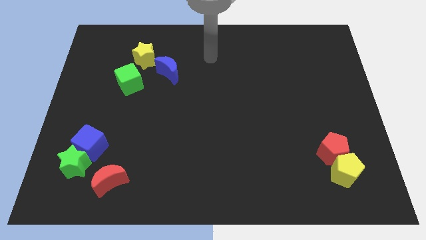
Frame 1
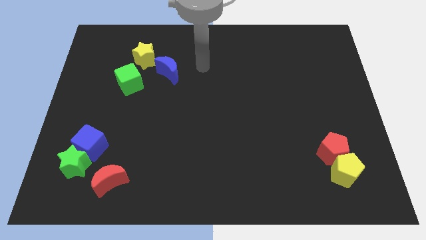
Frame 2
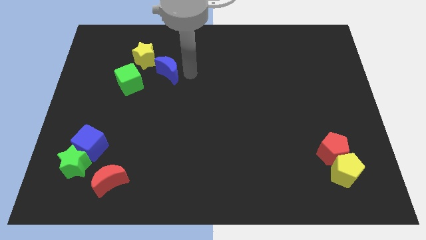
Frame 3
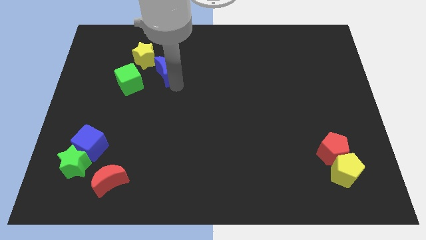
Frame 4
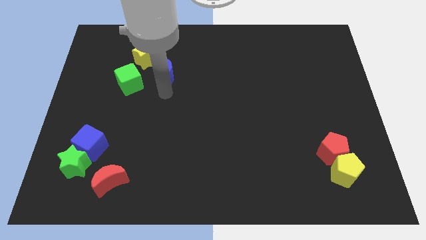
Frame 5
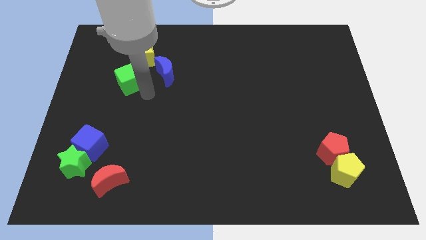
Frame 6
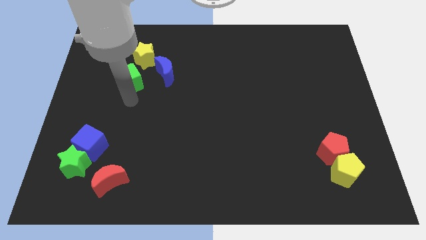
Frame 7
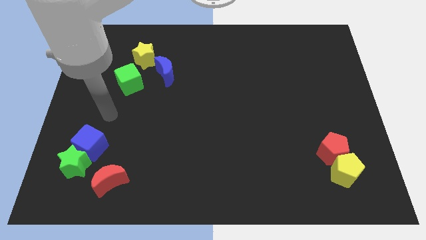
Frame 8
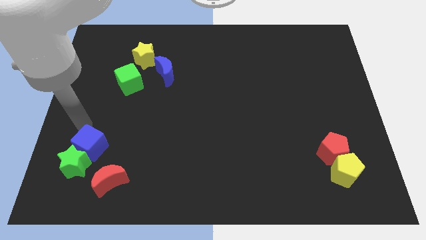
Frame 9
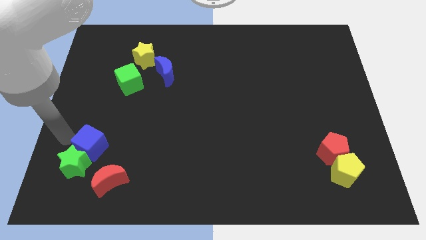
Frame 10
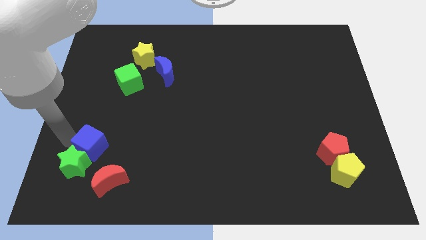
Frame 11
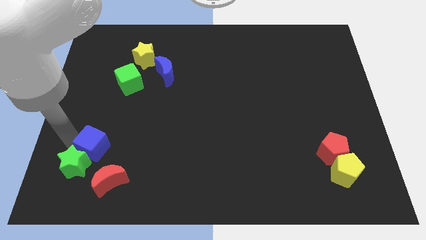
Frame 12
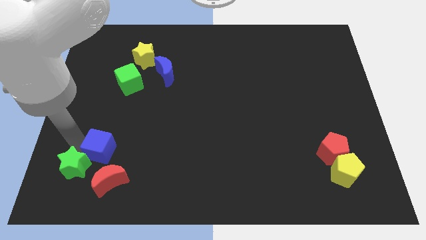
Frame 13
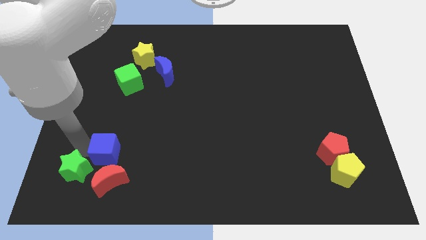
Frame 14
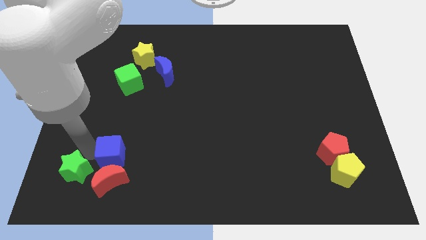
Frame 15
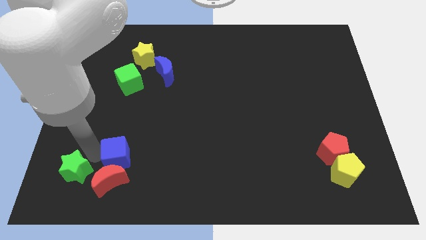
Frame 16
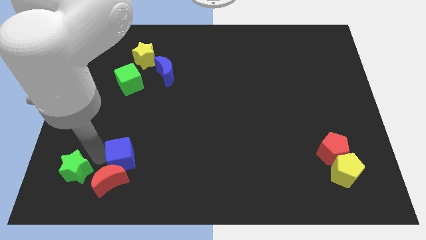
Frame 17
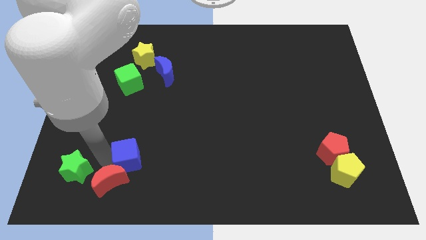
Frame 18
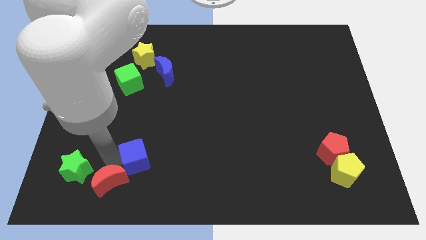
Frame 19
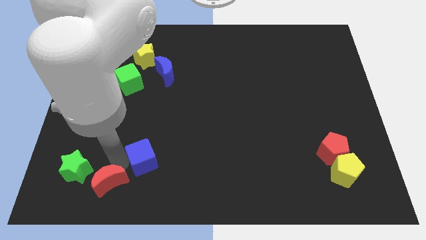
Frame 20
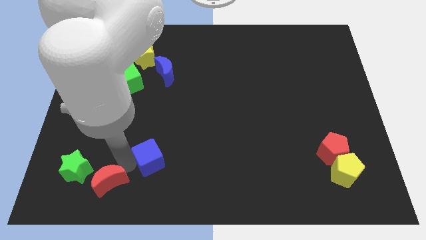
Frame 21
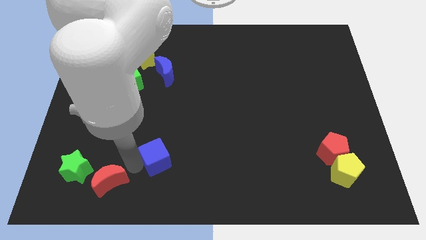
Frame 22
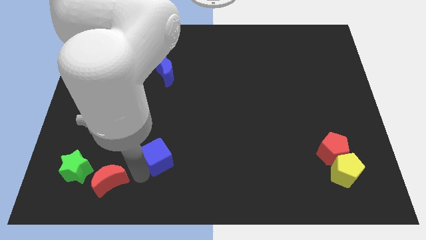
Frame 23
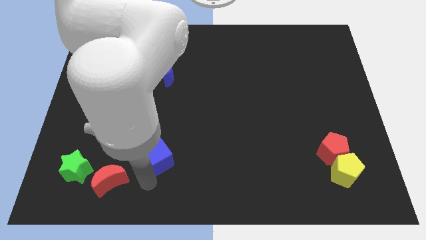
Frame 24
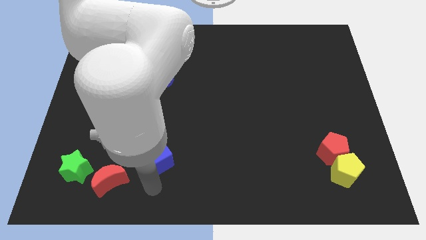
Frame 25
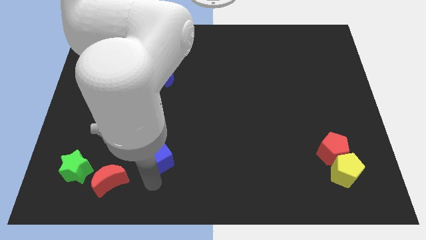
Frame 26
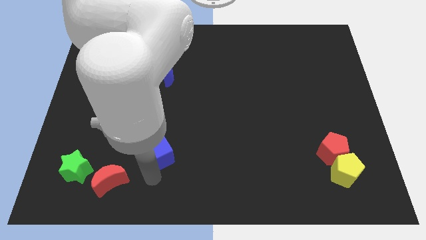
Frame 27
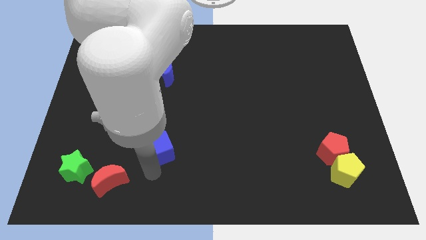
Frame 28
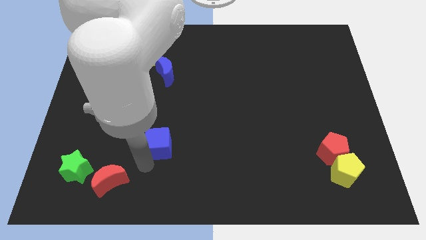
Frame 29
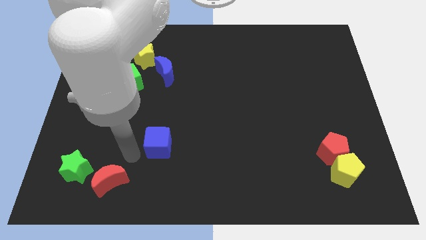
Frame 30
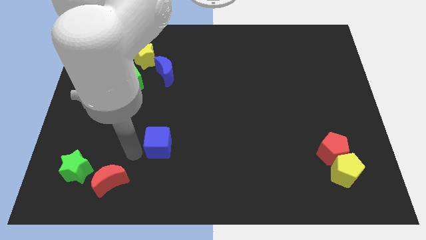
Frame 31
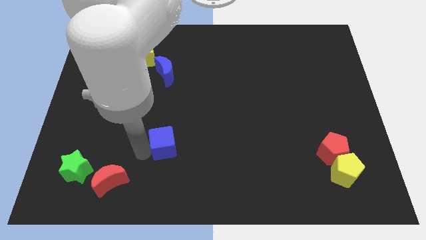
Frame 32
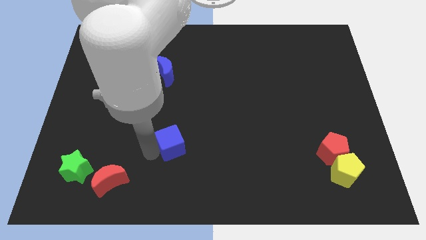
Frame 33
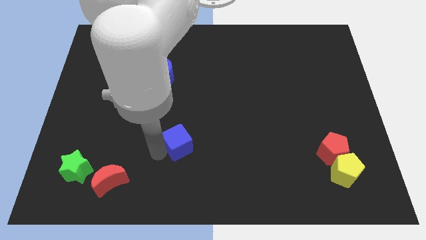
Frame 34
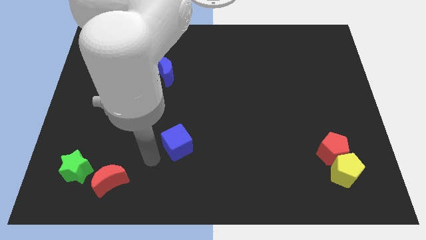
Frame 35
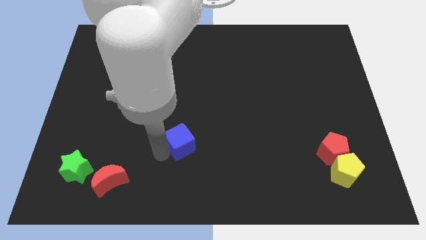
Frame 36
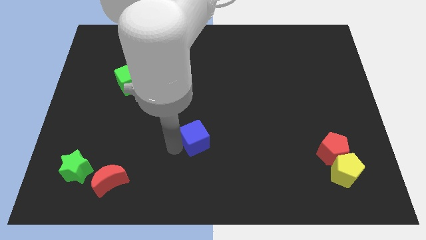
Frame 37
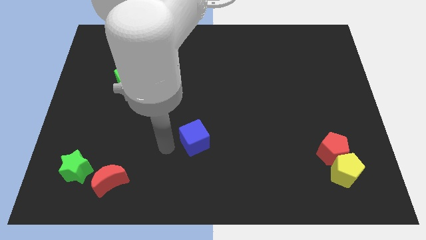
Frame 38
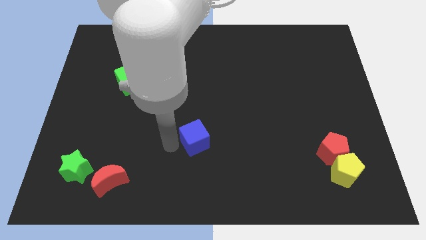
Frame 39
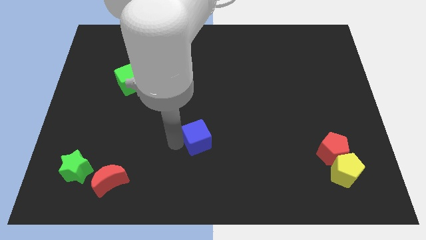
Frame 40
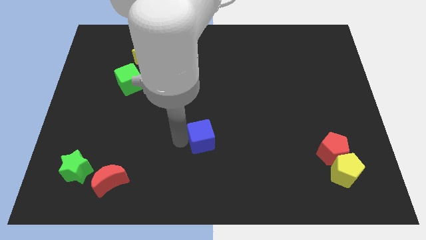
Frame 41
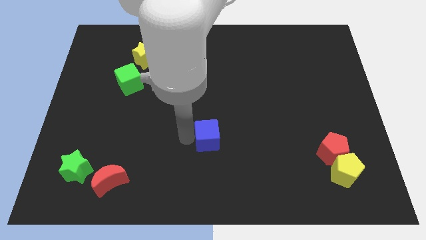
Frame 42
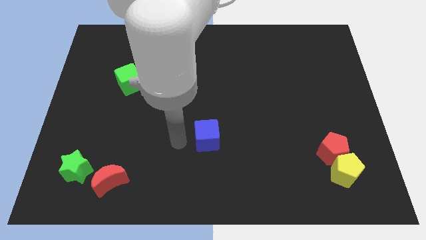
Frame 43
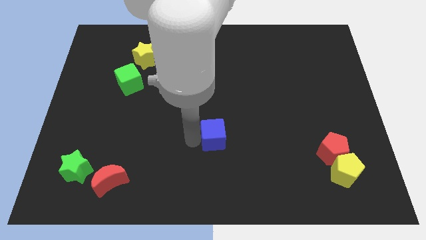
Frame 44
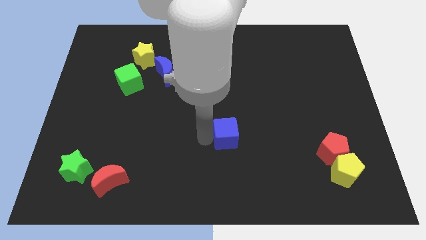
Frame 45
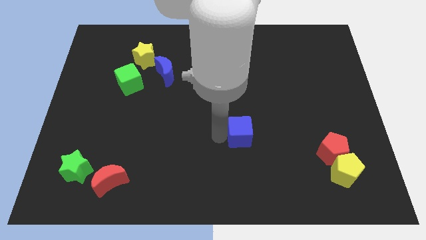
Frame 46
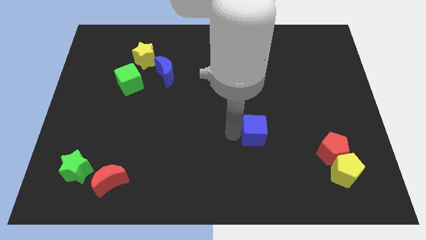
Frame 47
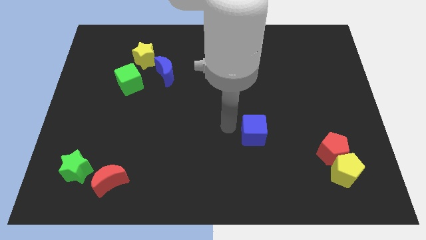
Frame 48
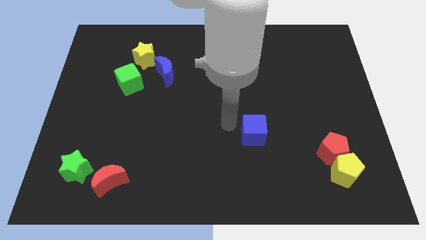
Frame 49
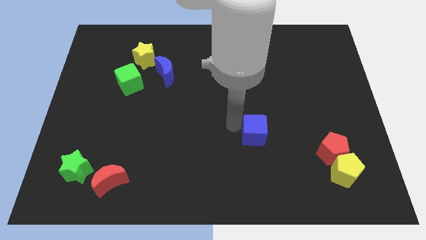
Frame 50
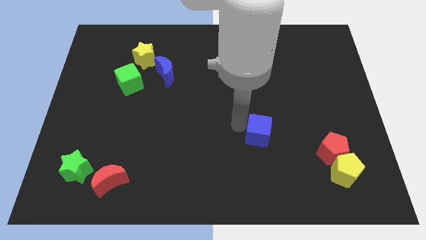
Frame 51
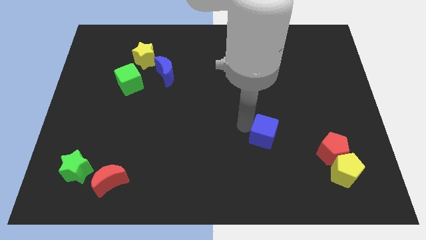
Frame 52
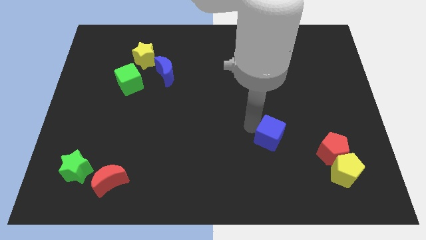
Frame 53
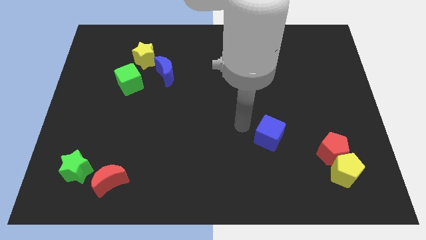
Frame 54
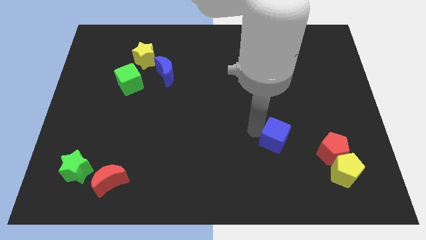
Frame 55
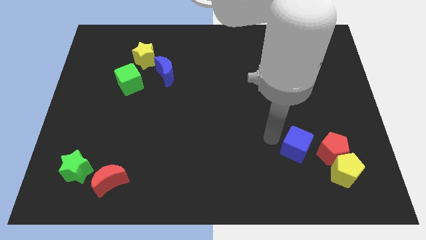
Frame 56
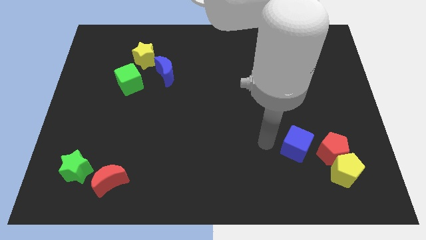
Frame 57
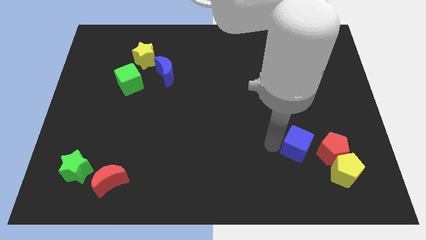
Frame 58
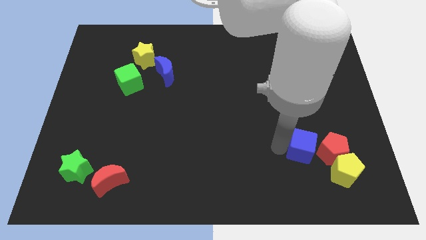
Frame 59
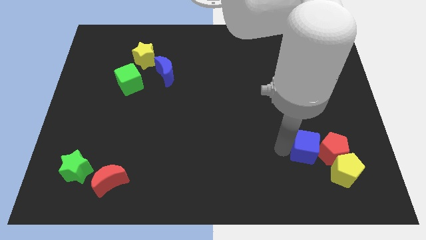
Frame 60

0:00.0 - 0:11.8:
put the blue cube towards the red pentagon

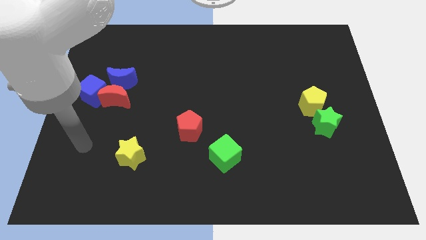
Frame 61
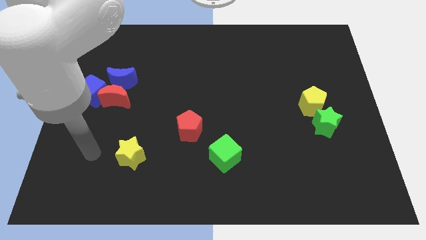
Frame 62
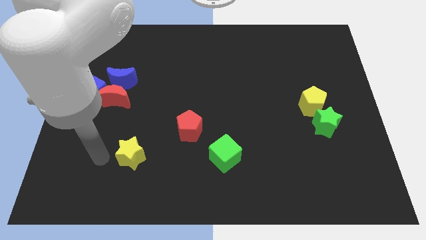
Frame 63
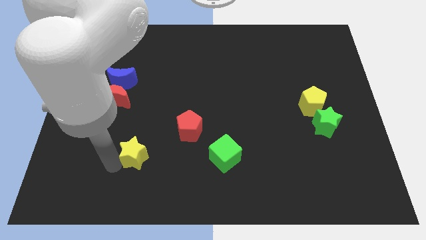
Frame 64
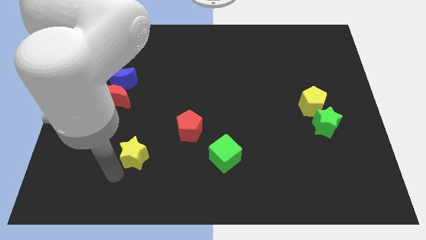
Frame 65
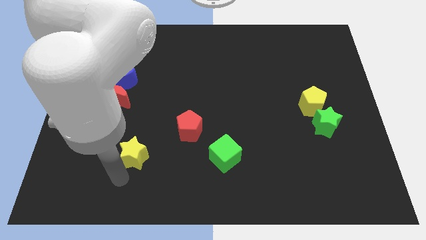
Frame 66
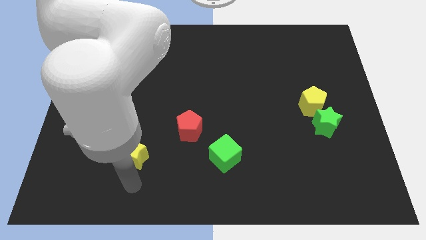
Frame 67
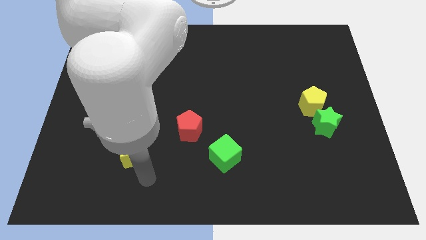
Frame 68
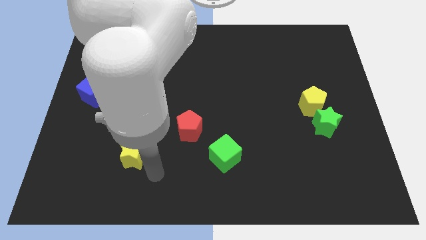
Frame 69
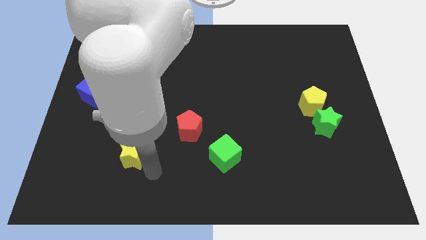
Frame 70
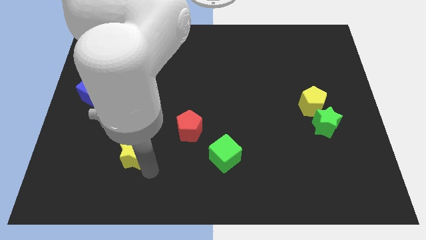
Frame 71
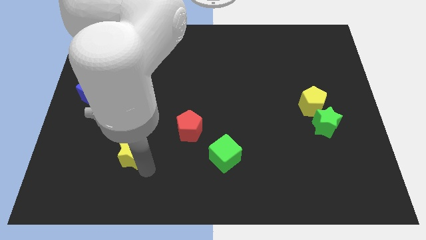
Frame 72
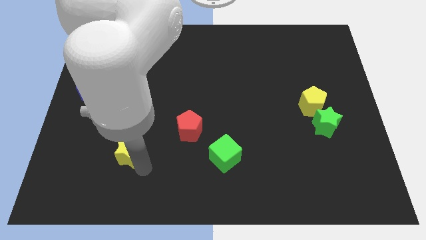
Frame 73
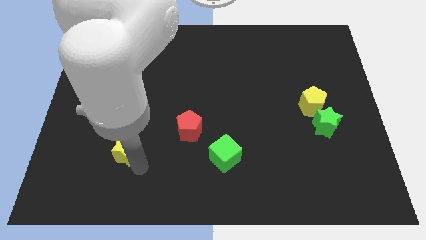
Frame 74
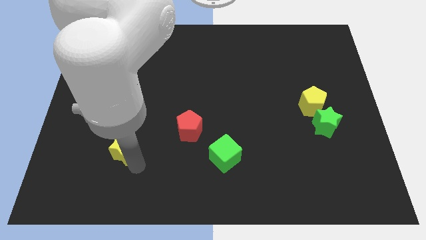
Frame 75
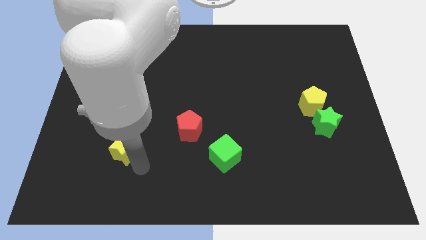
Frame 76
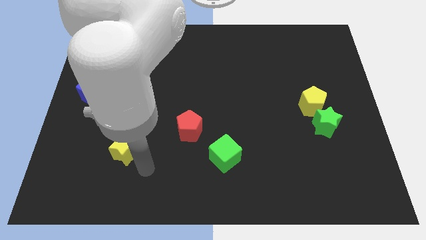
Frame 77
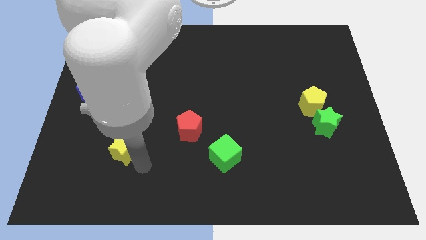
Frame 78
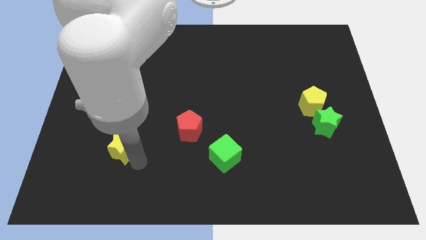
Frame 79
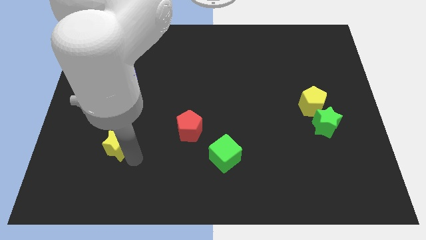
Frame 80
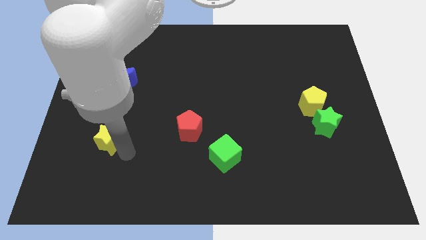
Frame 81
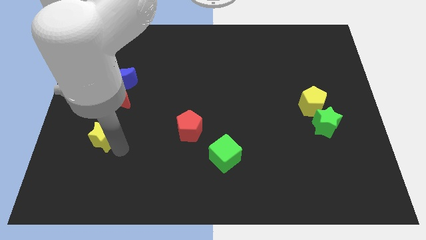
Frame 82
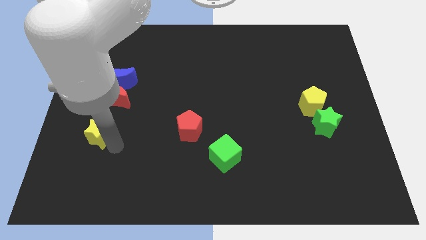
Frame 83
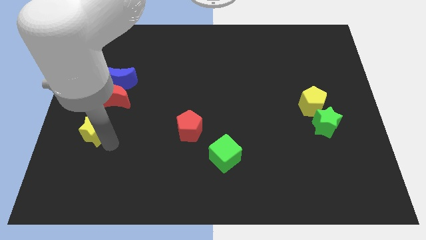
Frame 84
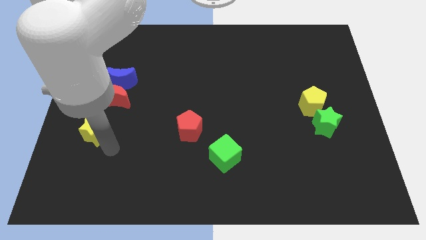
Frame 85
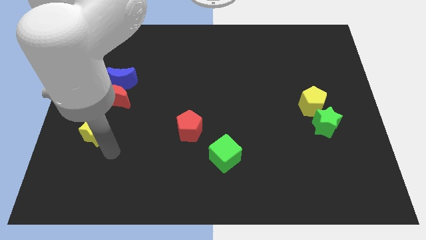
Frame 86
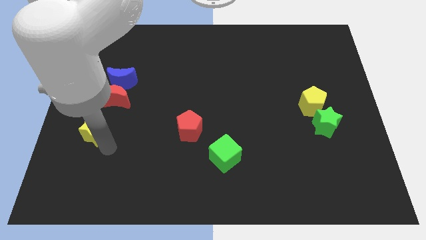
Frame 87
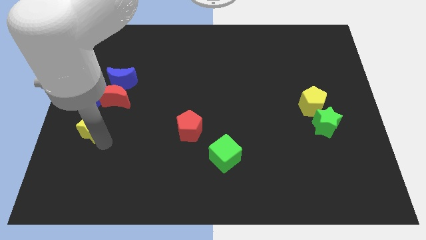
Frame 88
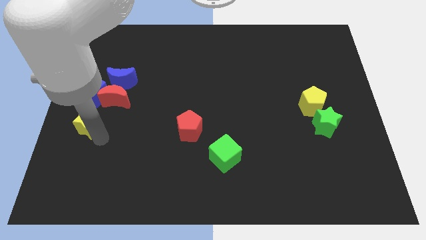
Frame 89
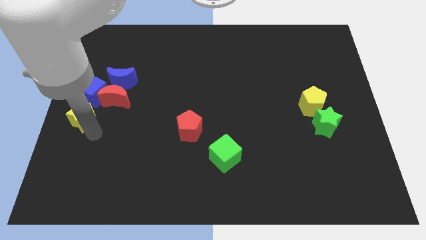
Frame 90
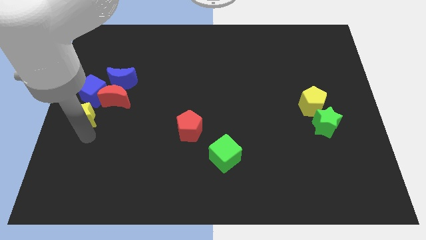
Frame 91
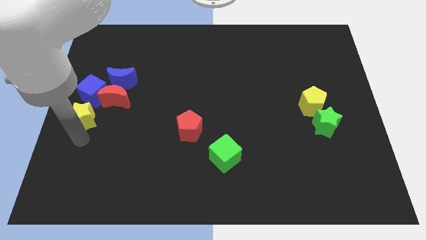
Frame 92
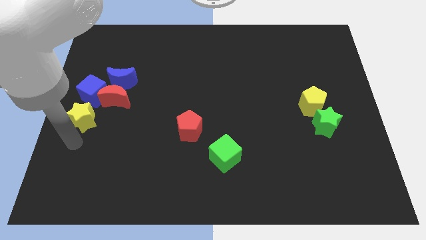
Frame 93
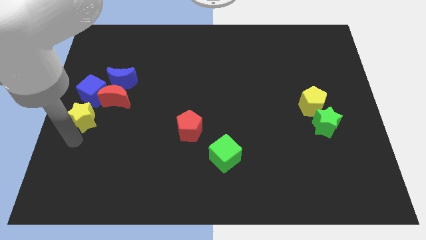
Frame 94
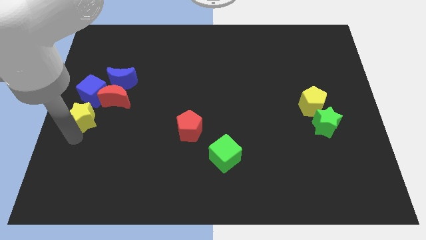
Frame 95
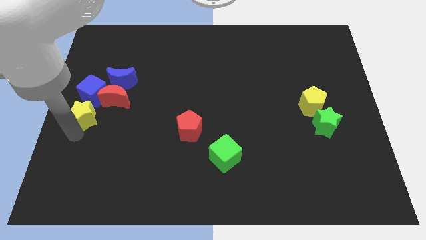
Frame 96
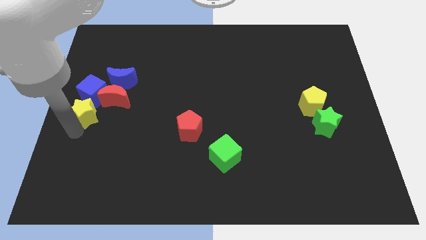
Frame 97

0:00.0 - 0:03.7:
slide the yellow star next to the blue cube
